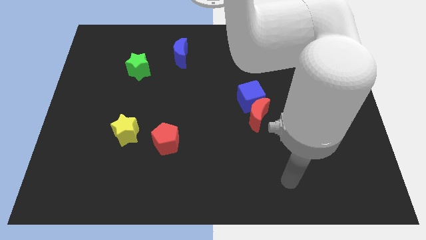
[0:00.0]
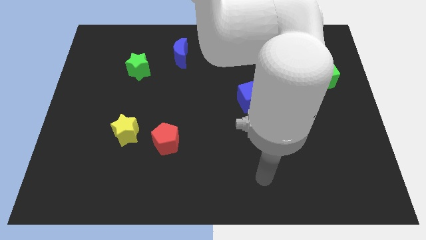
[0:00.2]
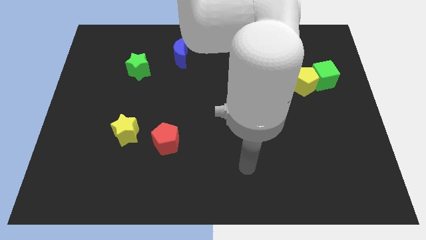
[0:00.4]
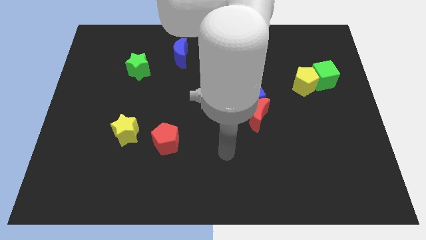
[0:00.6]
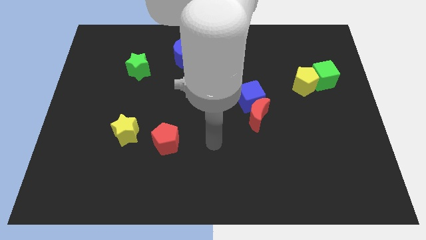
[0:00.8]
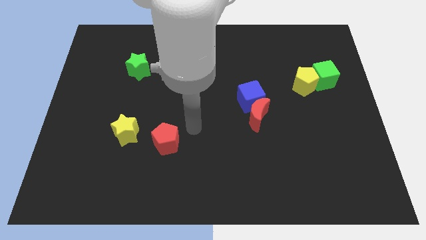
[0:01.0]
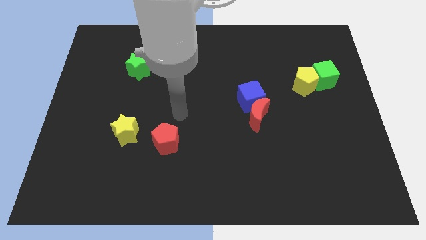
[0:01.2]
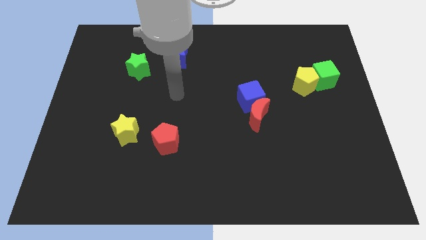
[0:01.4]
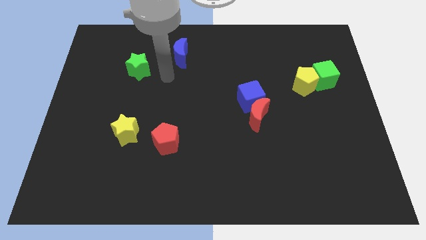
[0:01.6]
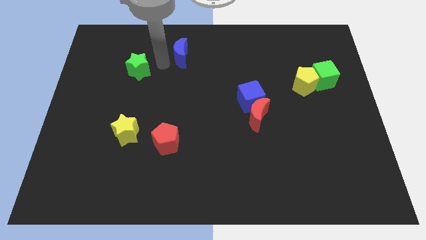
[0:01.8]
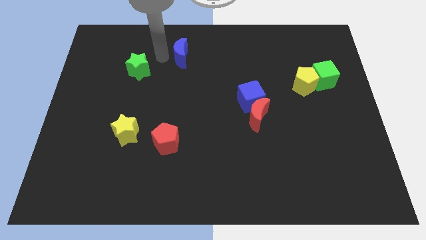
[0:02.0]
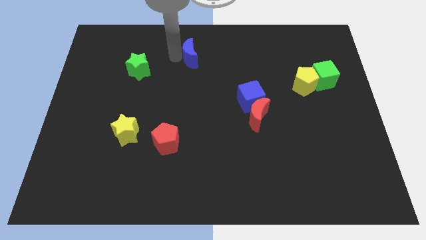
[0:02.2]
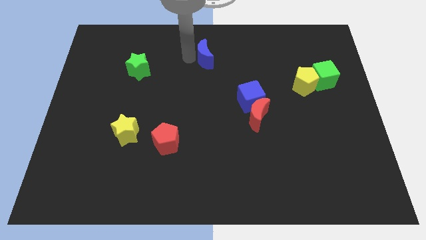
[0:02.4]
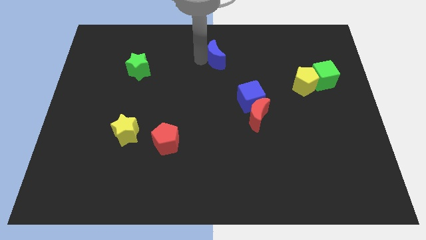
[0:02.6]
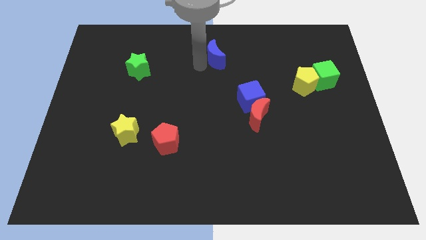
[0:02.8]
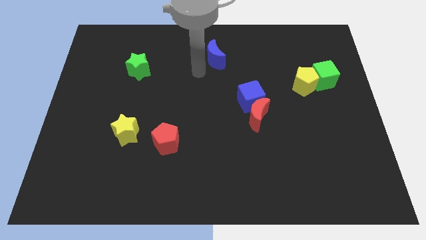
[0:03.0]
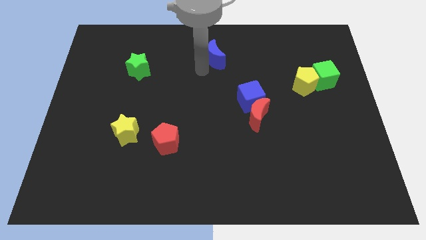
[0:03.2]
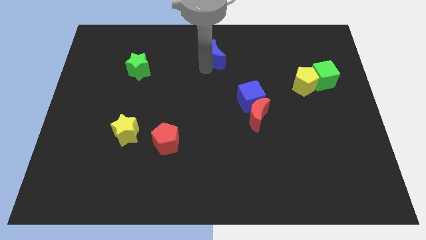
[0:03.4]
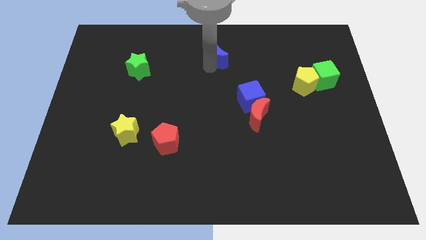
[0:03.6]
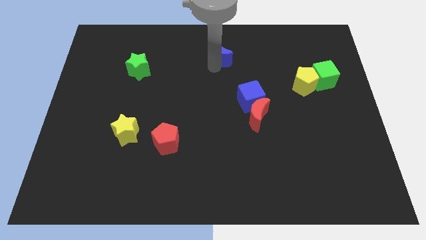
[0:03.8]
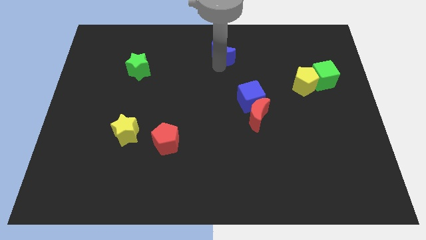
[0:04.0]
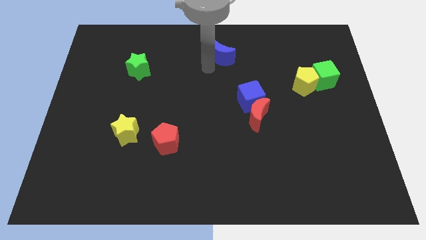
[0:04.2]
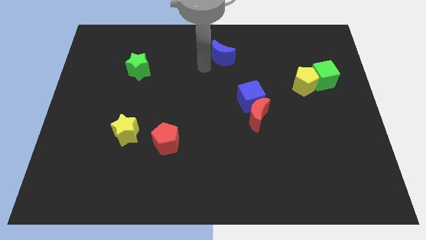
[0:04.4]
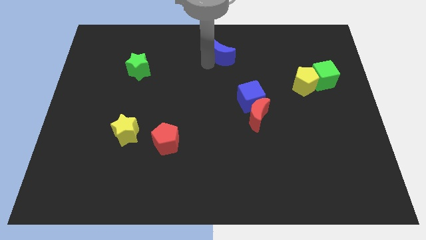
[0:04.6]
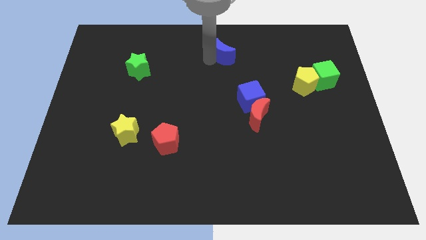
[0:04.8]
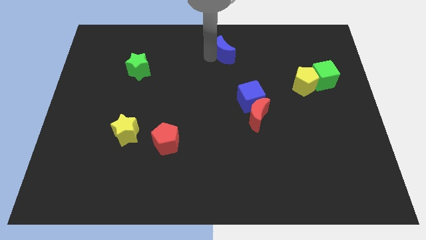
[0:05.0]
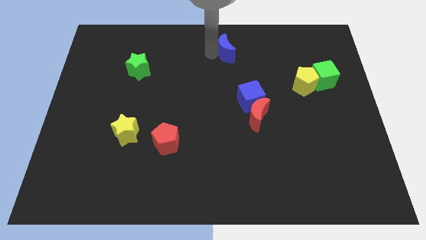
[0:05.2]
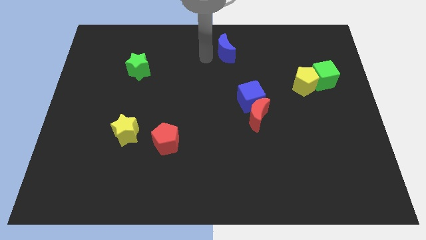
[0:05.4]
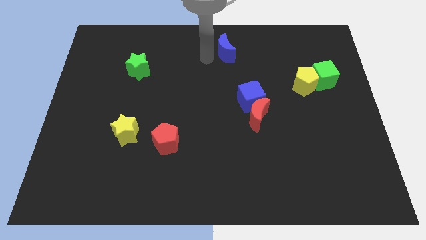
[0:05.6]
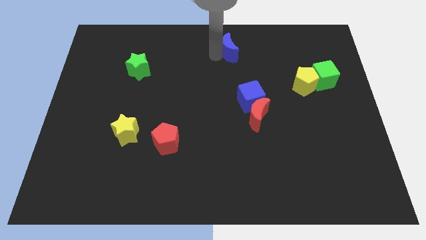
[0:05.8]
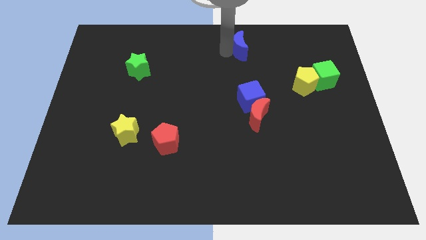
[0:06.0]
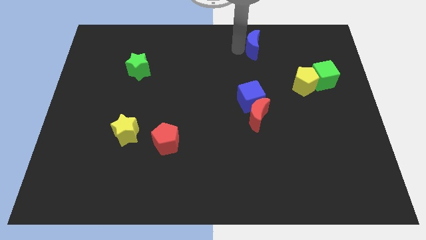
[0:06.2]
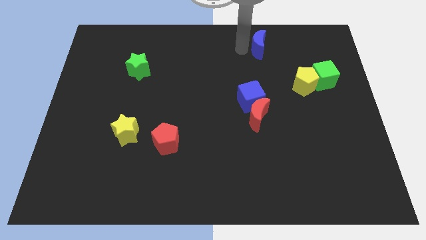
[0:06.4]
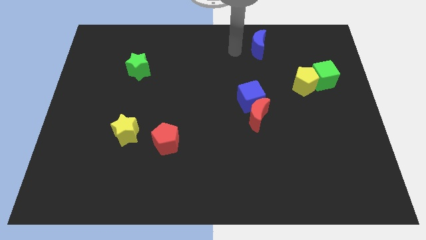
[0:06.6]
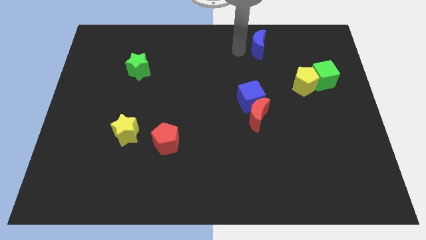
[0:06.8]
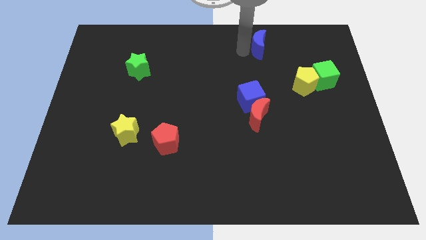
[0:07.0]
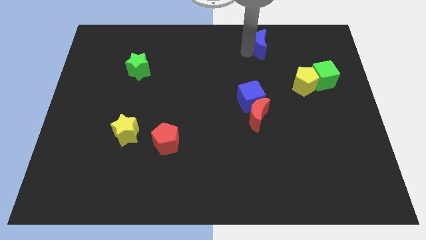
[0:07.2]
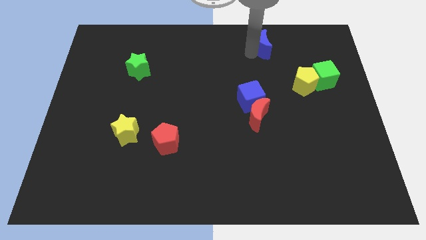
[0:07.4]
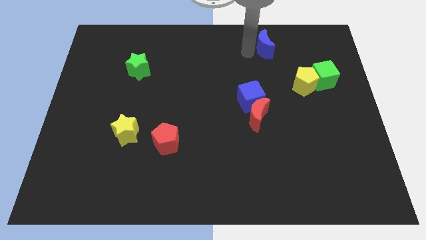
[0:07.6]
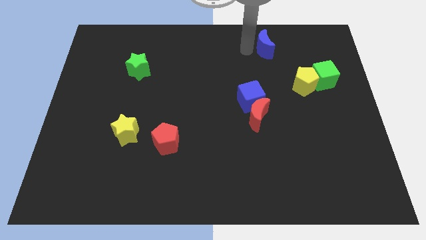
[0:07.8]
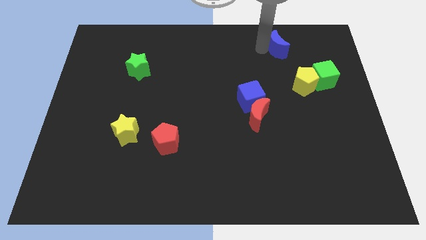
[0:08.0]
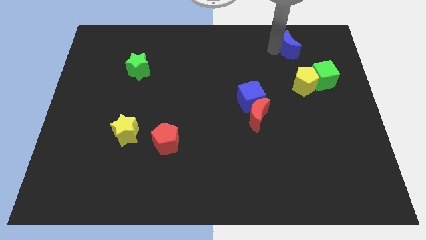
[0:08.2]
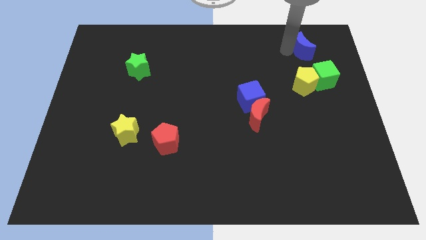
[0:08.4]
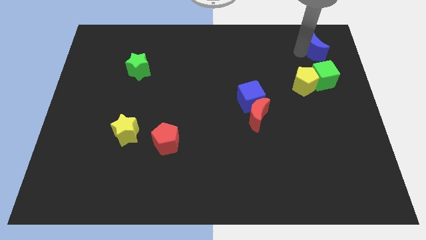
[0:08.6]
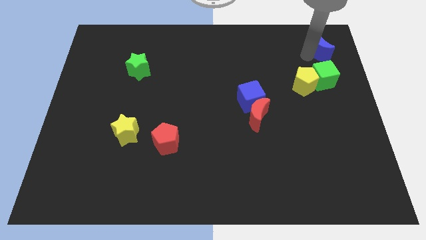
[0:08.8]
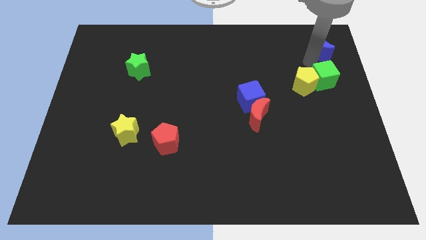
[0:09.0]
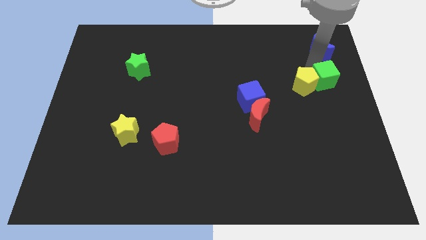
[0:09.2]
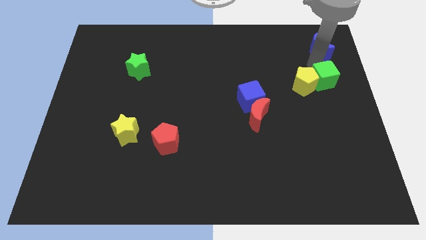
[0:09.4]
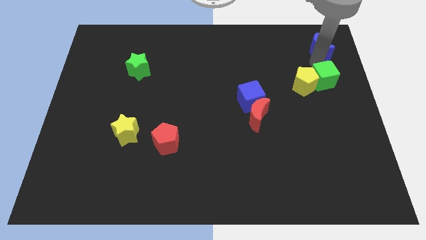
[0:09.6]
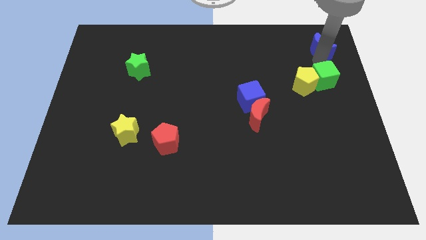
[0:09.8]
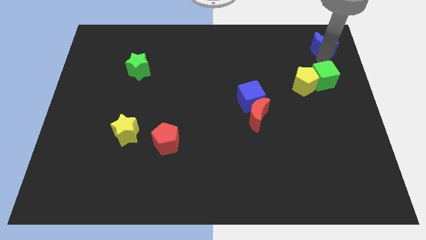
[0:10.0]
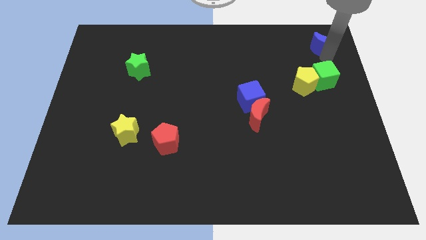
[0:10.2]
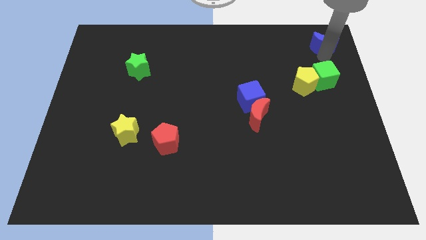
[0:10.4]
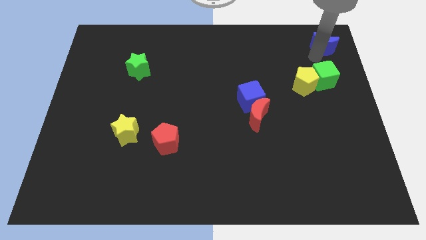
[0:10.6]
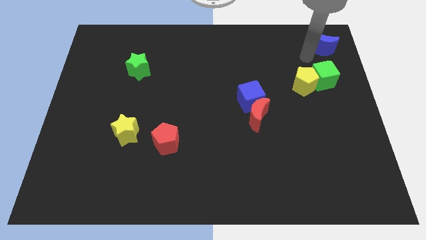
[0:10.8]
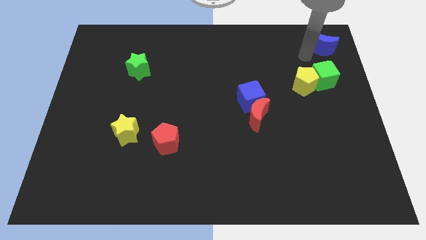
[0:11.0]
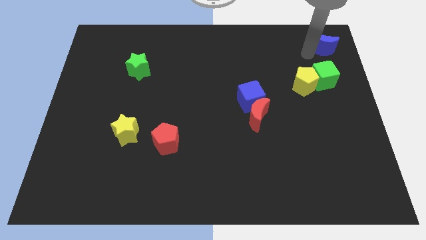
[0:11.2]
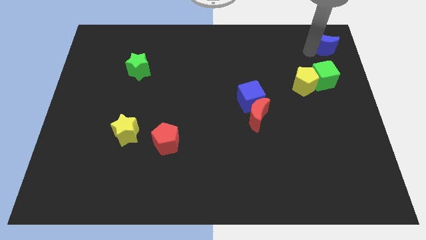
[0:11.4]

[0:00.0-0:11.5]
push the blue moon to the top right

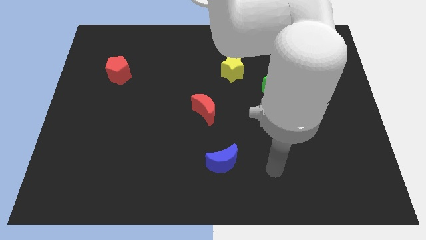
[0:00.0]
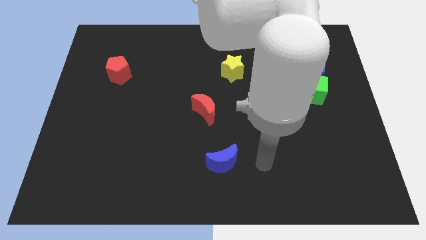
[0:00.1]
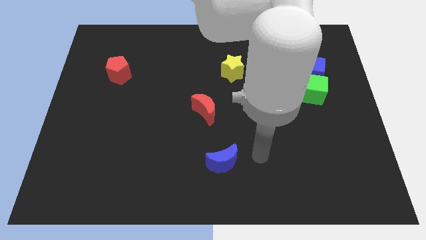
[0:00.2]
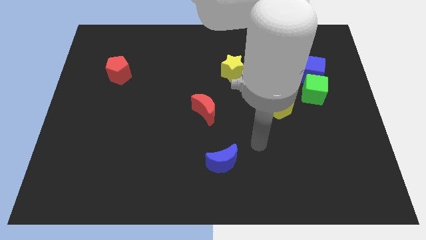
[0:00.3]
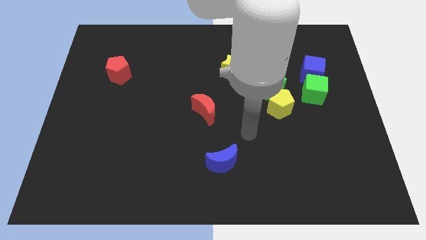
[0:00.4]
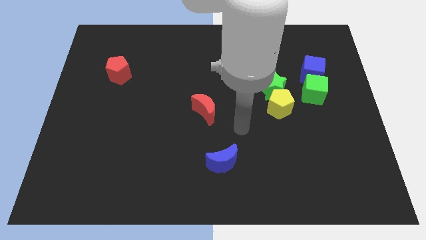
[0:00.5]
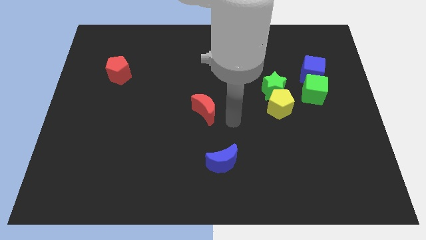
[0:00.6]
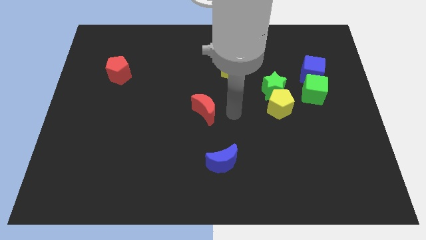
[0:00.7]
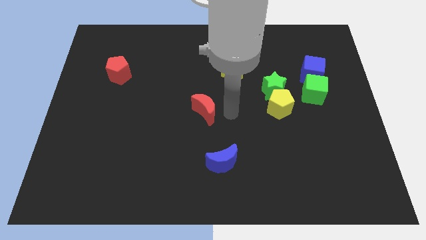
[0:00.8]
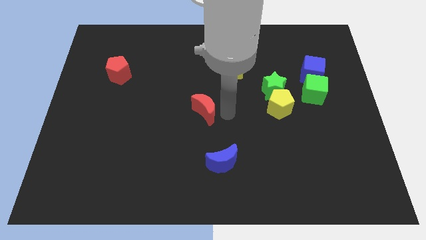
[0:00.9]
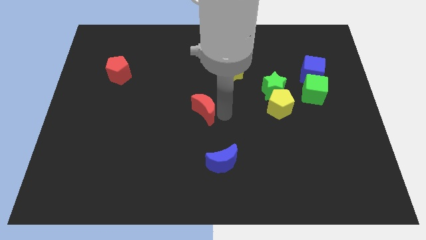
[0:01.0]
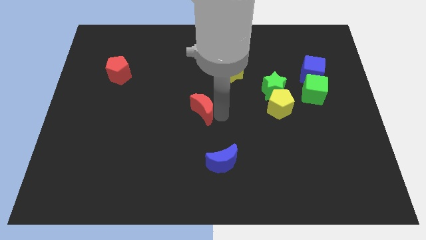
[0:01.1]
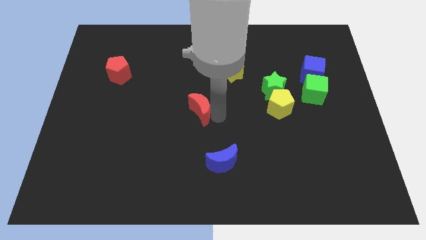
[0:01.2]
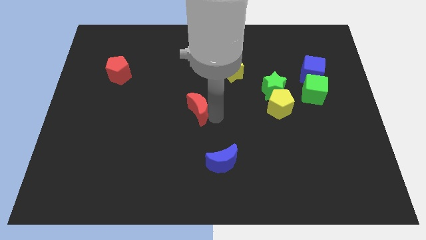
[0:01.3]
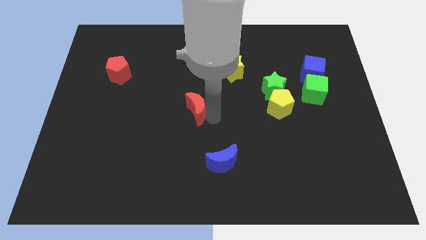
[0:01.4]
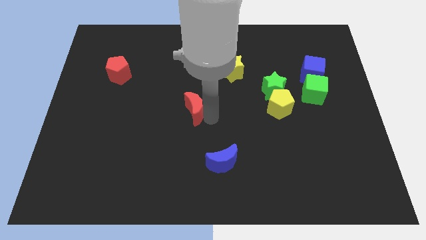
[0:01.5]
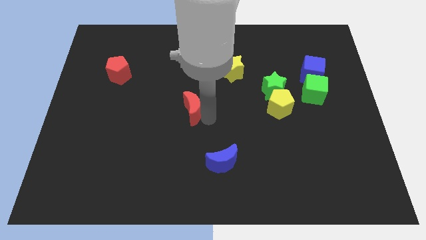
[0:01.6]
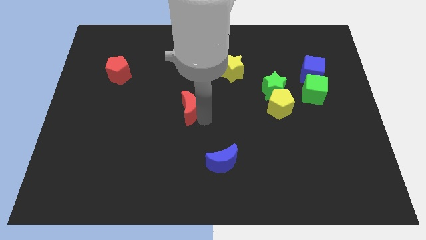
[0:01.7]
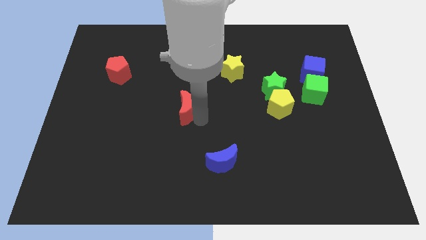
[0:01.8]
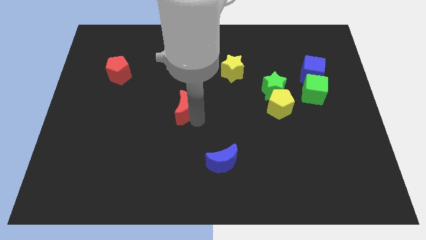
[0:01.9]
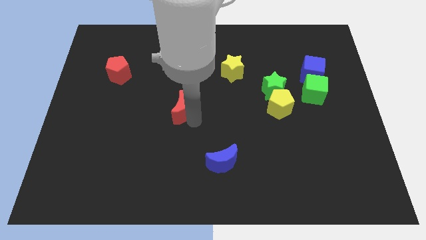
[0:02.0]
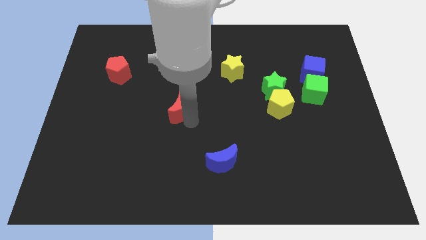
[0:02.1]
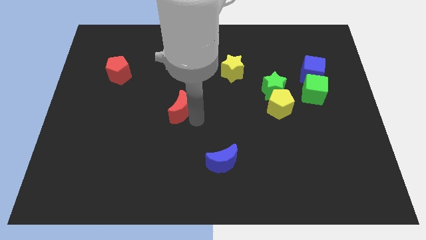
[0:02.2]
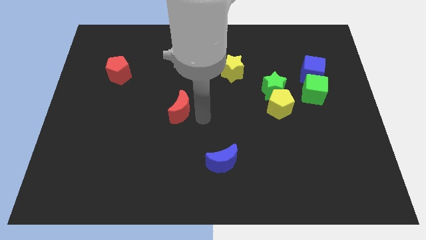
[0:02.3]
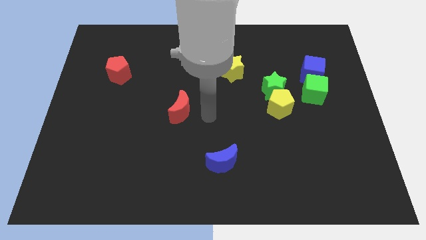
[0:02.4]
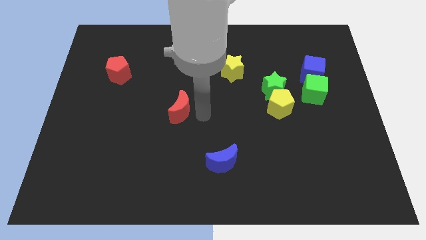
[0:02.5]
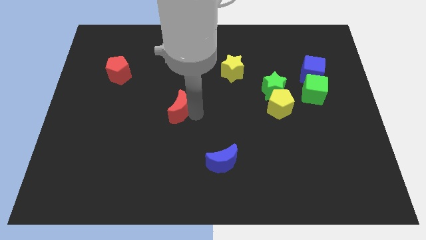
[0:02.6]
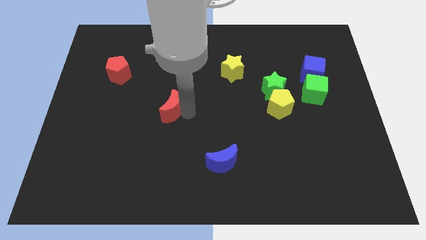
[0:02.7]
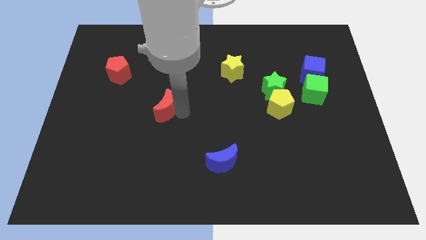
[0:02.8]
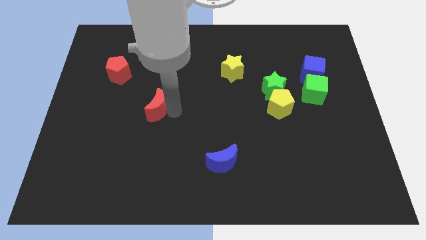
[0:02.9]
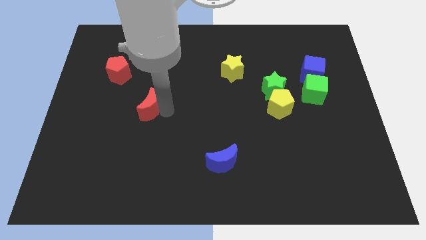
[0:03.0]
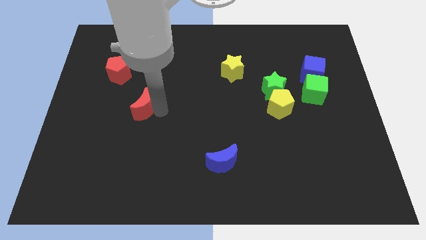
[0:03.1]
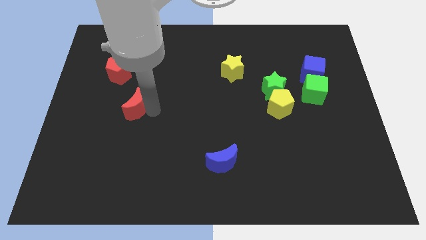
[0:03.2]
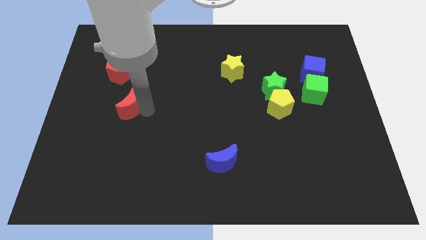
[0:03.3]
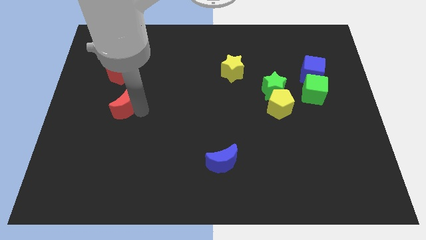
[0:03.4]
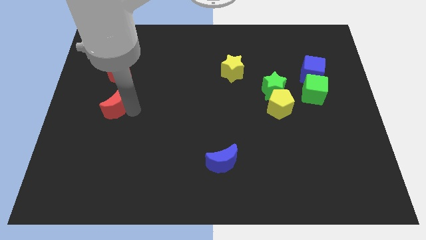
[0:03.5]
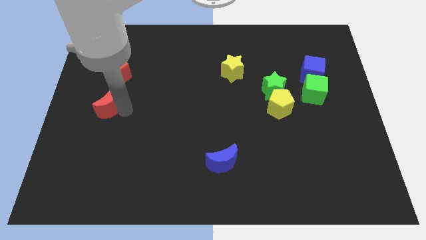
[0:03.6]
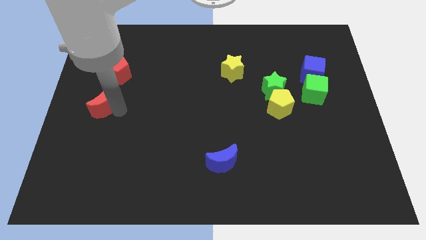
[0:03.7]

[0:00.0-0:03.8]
put the red moon to the left side
